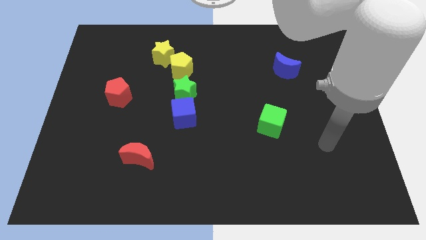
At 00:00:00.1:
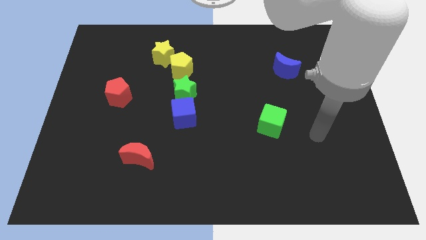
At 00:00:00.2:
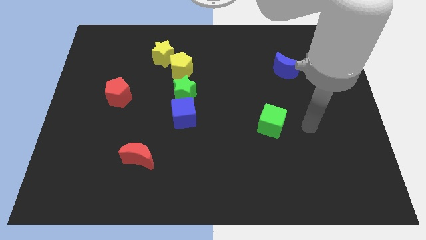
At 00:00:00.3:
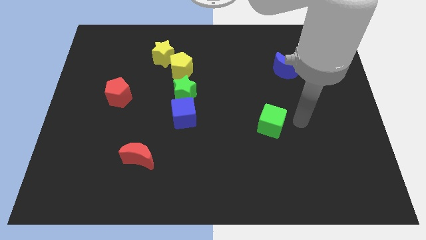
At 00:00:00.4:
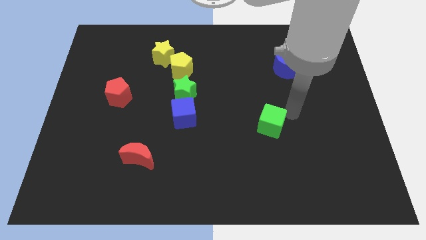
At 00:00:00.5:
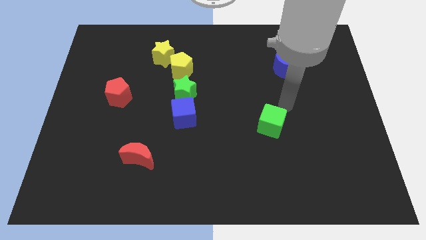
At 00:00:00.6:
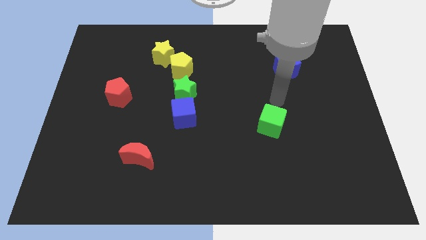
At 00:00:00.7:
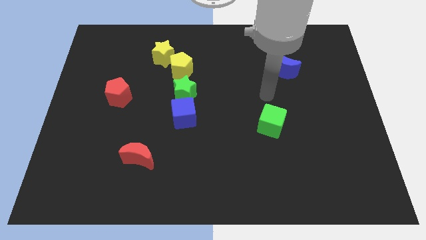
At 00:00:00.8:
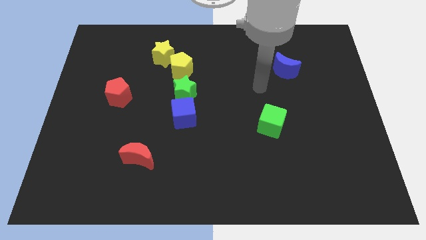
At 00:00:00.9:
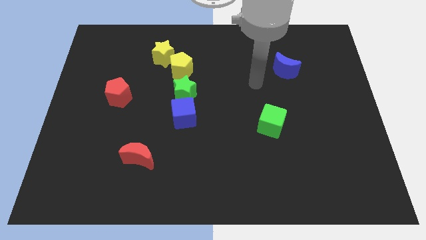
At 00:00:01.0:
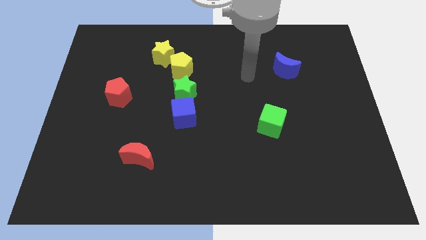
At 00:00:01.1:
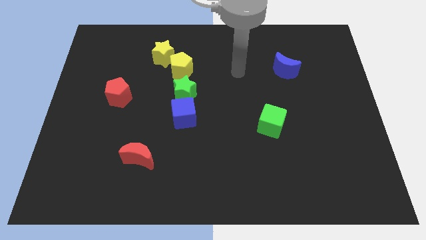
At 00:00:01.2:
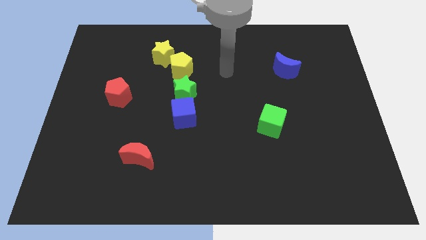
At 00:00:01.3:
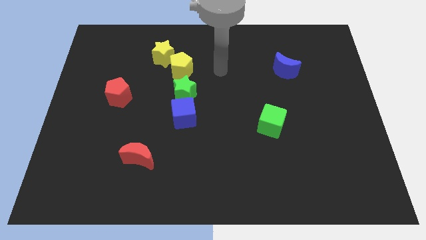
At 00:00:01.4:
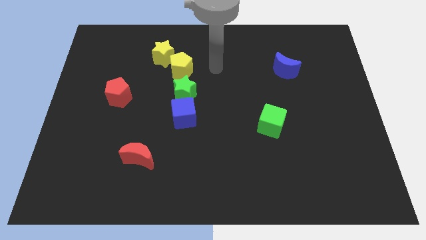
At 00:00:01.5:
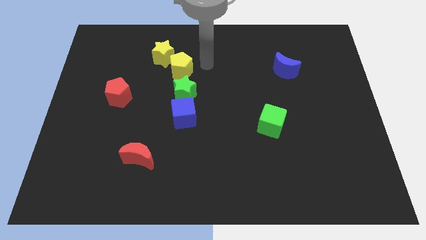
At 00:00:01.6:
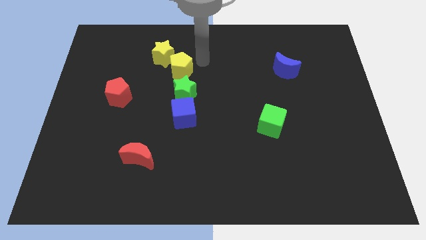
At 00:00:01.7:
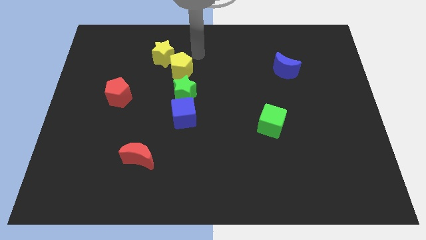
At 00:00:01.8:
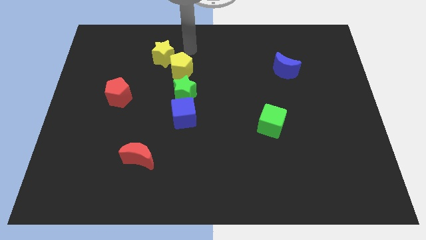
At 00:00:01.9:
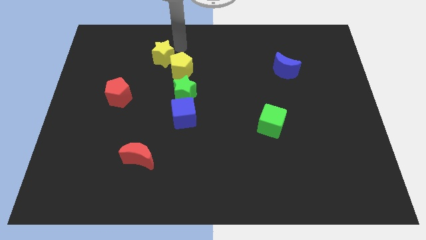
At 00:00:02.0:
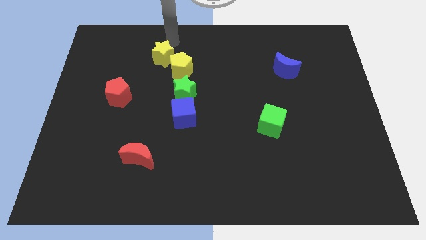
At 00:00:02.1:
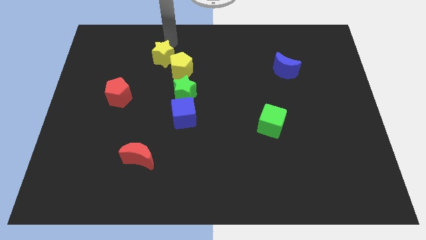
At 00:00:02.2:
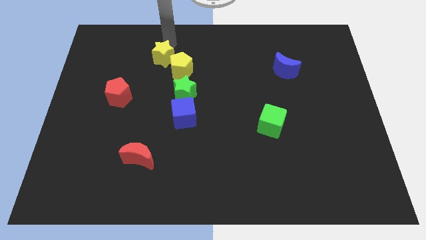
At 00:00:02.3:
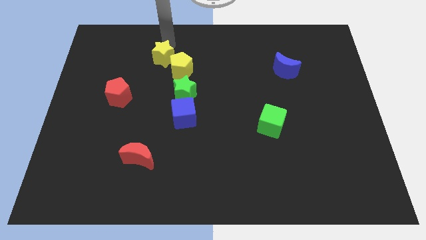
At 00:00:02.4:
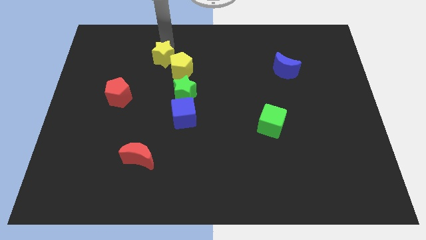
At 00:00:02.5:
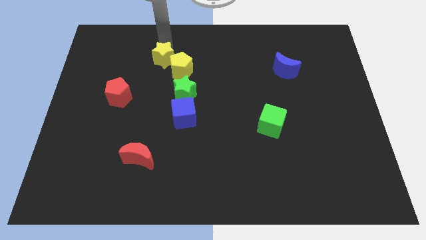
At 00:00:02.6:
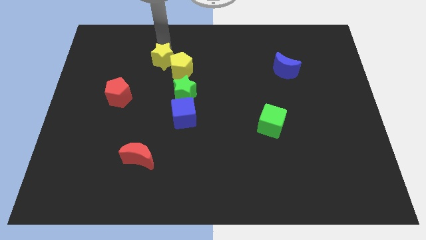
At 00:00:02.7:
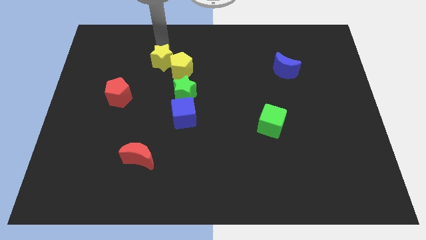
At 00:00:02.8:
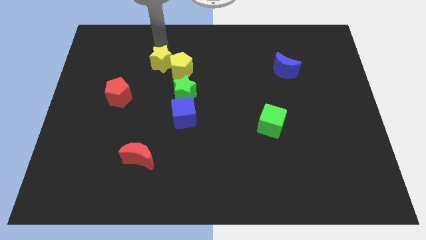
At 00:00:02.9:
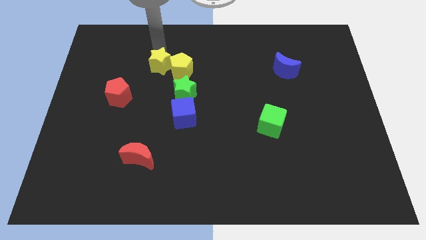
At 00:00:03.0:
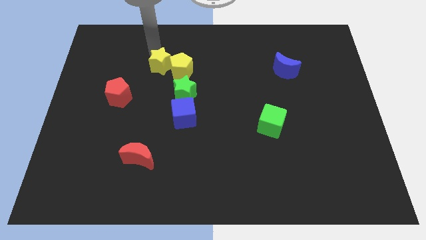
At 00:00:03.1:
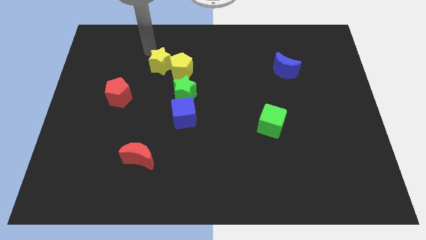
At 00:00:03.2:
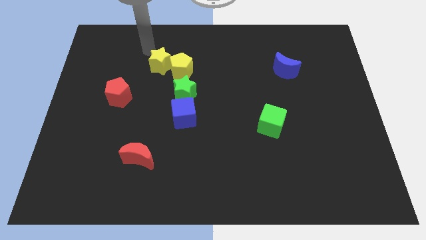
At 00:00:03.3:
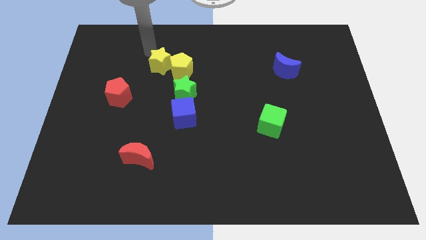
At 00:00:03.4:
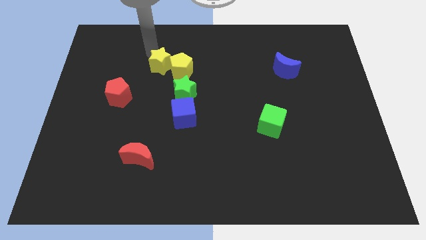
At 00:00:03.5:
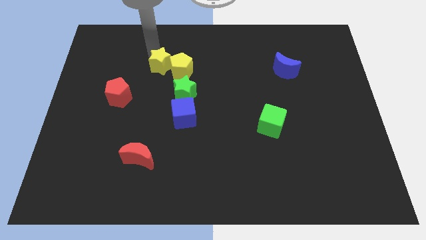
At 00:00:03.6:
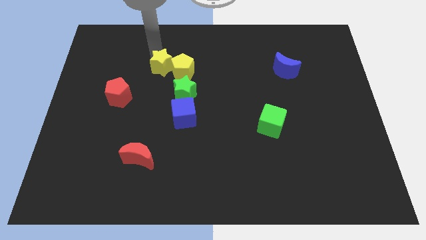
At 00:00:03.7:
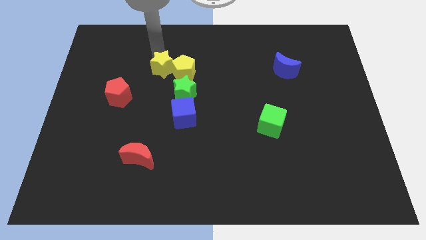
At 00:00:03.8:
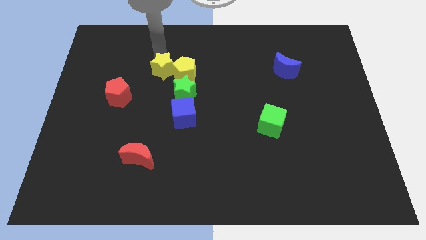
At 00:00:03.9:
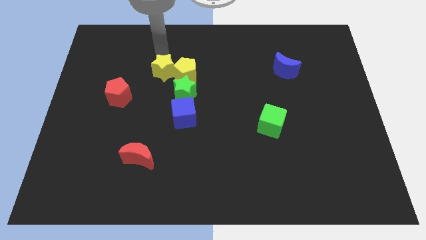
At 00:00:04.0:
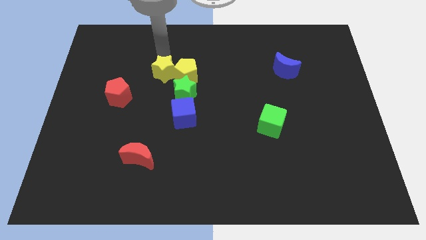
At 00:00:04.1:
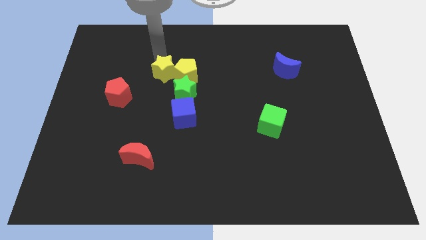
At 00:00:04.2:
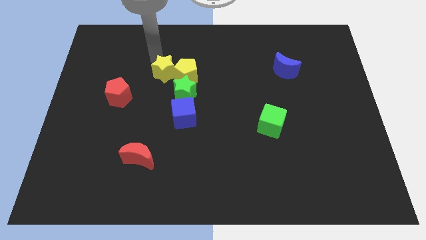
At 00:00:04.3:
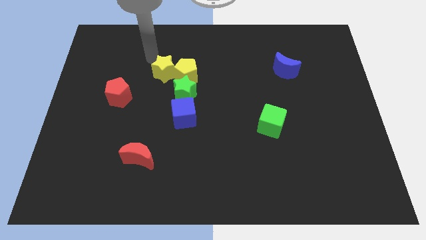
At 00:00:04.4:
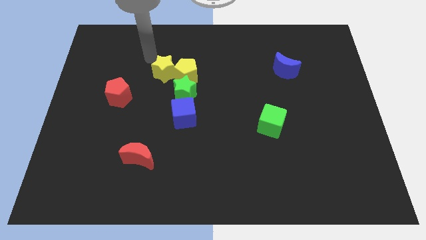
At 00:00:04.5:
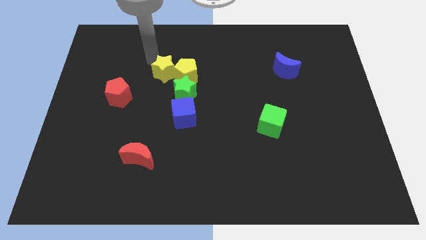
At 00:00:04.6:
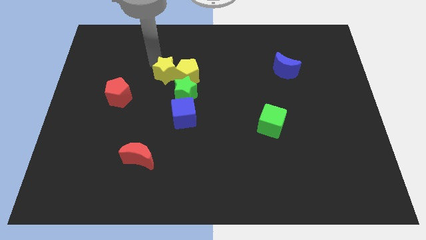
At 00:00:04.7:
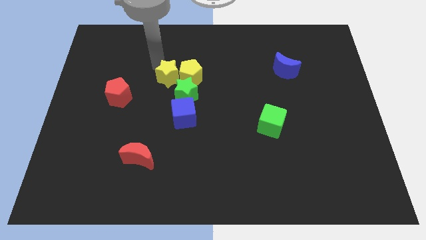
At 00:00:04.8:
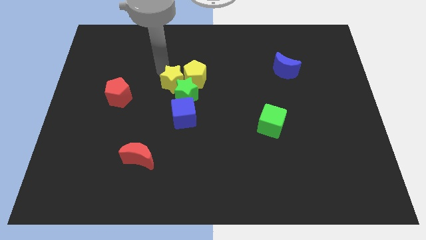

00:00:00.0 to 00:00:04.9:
put the yellow star to the green star

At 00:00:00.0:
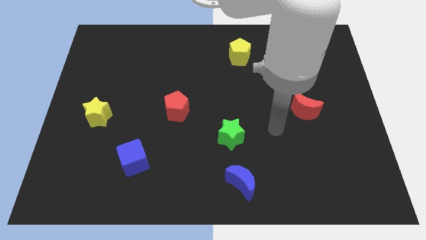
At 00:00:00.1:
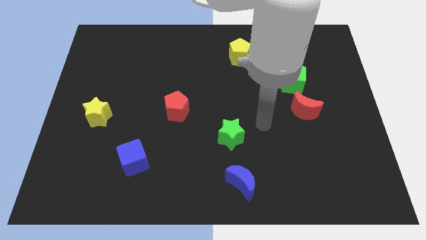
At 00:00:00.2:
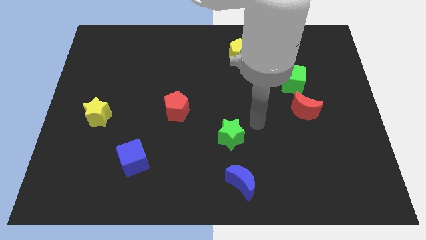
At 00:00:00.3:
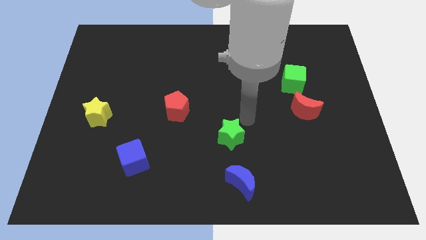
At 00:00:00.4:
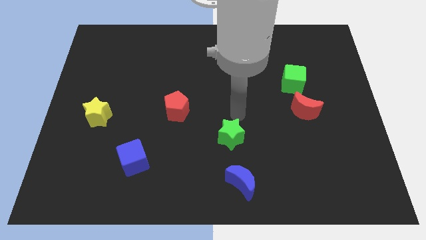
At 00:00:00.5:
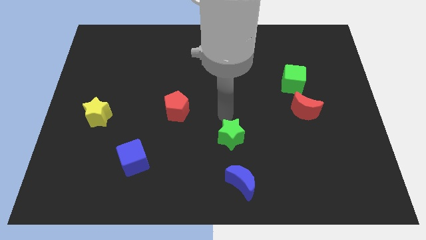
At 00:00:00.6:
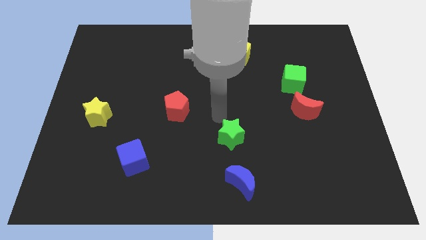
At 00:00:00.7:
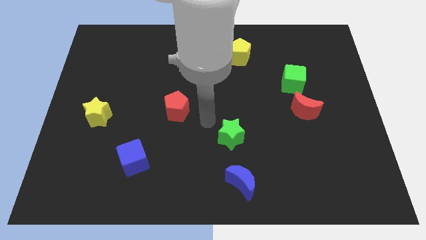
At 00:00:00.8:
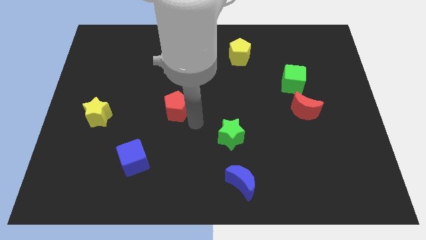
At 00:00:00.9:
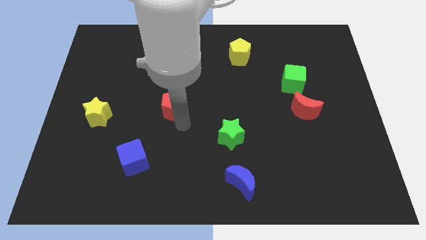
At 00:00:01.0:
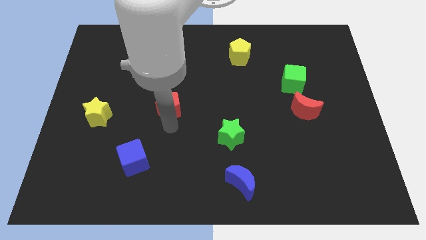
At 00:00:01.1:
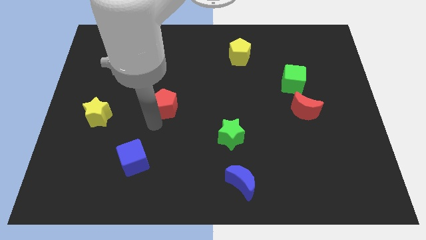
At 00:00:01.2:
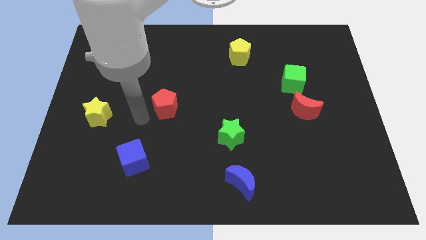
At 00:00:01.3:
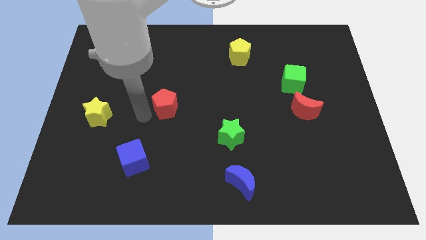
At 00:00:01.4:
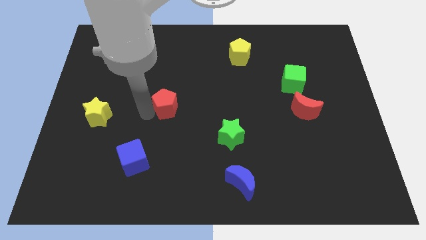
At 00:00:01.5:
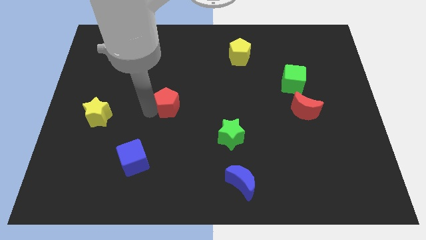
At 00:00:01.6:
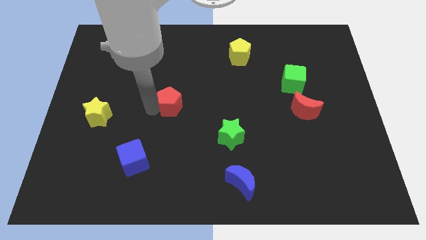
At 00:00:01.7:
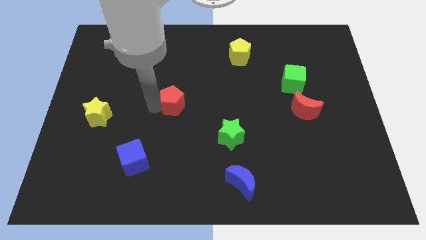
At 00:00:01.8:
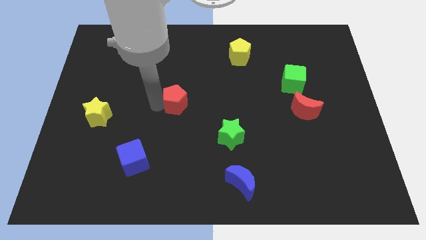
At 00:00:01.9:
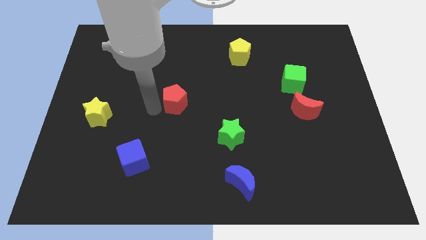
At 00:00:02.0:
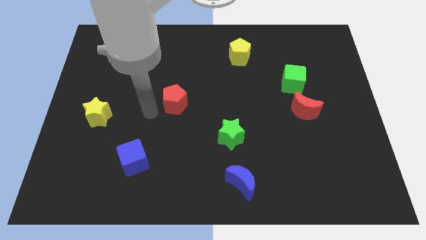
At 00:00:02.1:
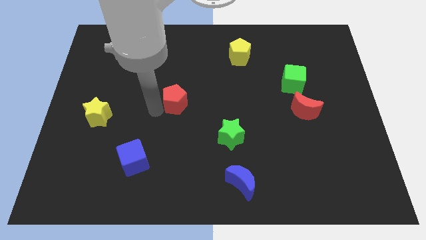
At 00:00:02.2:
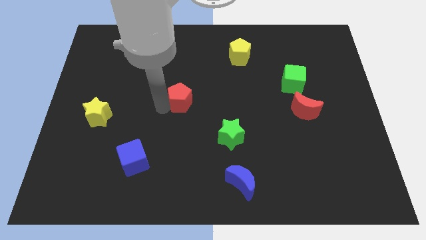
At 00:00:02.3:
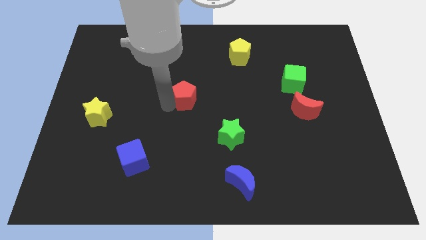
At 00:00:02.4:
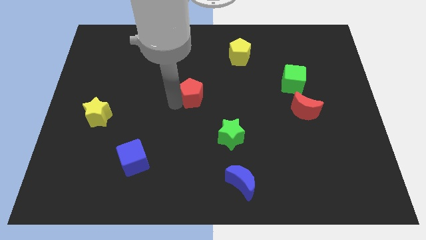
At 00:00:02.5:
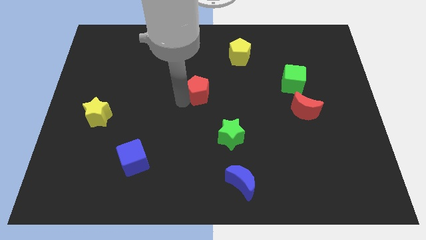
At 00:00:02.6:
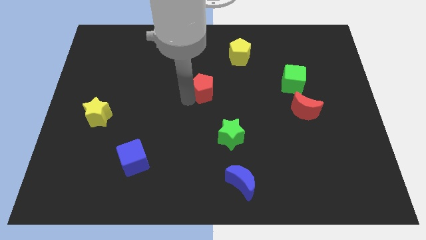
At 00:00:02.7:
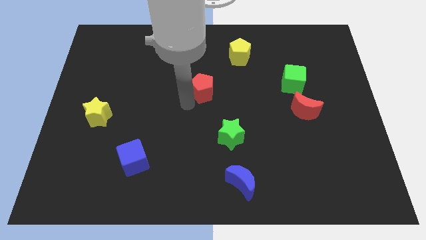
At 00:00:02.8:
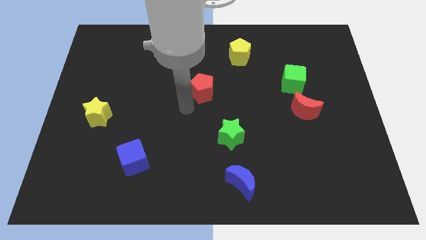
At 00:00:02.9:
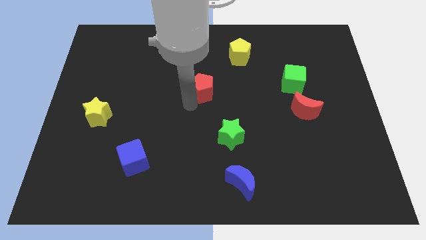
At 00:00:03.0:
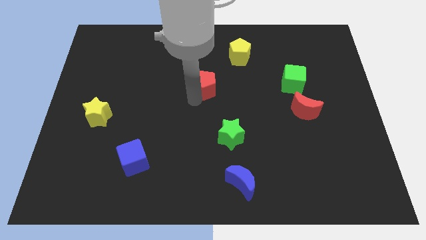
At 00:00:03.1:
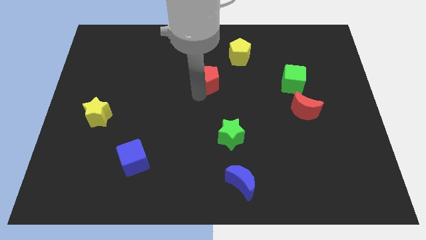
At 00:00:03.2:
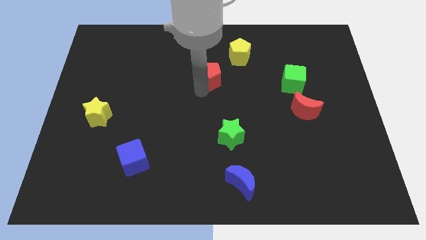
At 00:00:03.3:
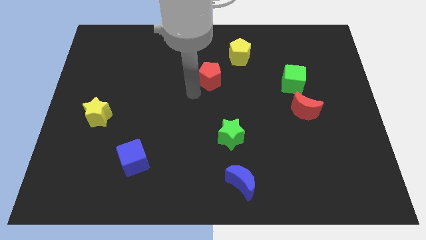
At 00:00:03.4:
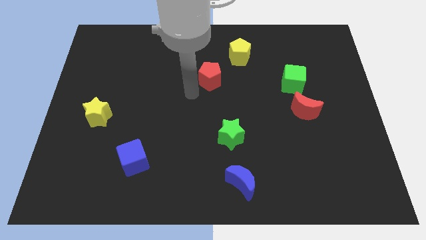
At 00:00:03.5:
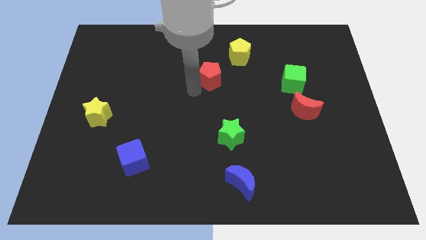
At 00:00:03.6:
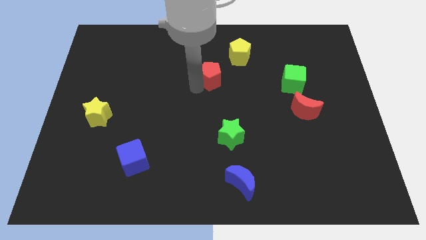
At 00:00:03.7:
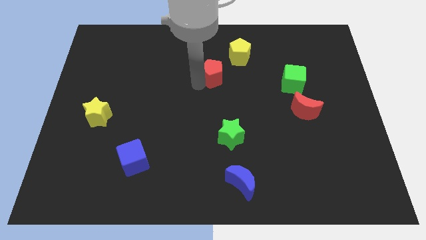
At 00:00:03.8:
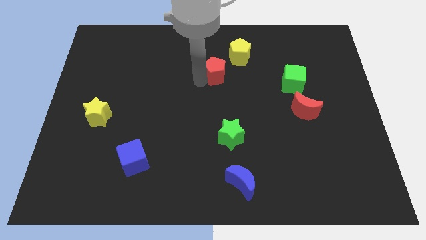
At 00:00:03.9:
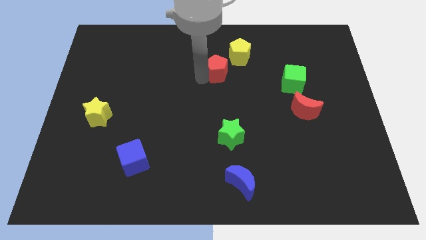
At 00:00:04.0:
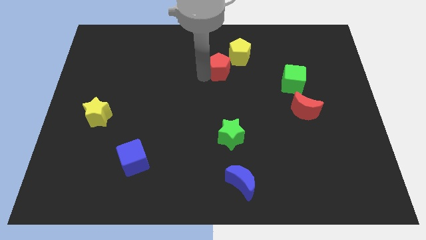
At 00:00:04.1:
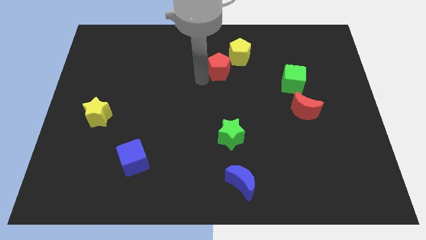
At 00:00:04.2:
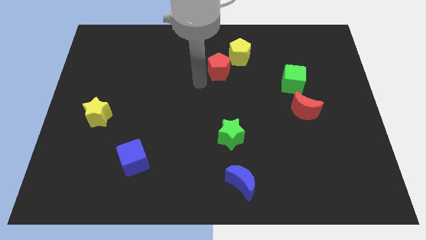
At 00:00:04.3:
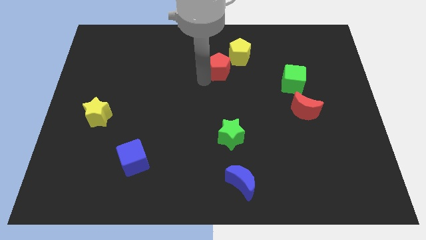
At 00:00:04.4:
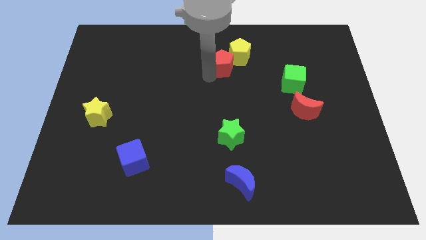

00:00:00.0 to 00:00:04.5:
put the red pentagon towards the yellow pentagon
